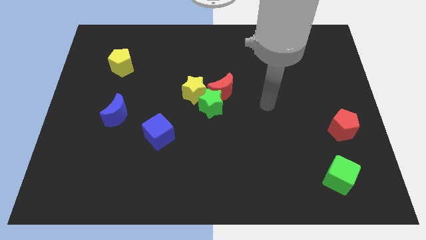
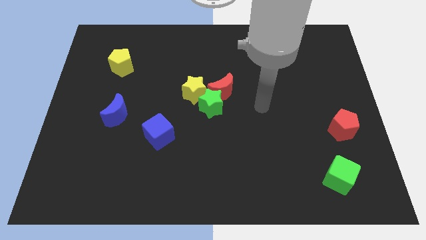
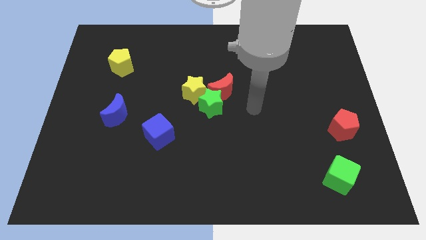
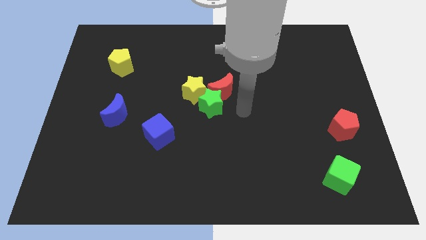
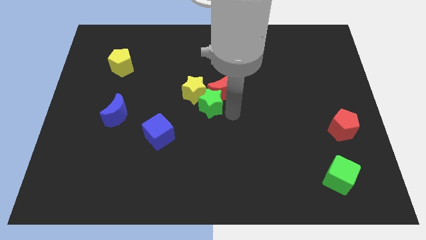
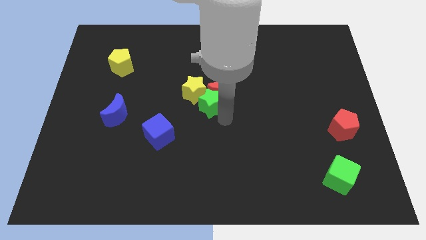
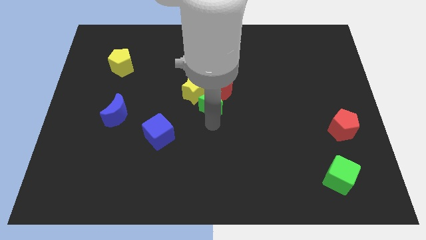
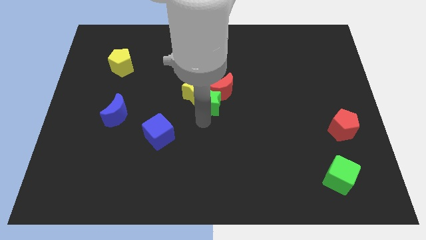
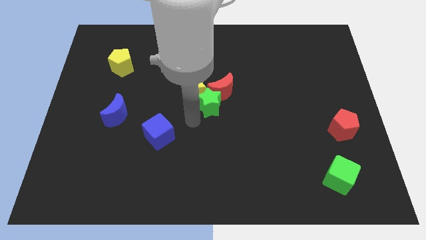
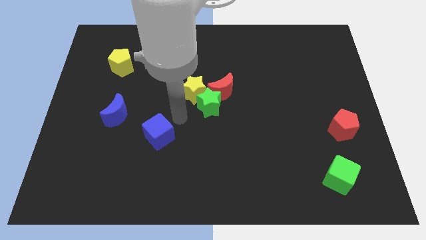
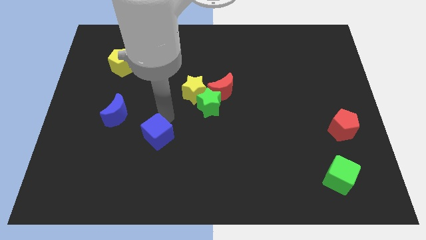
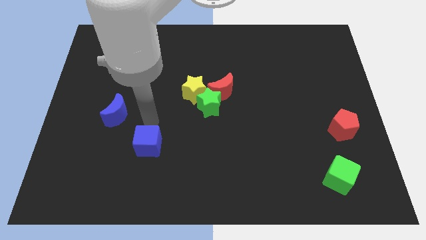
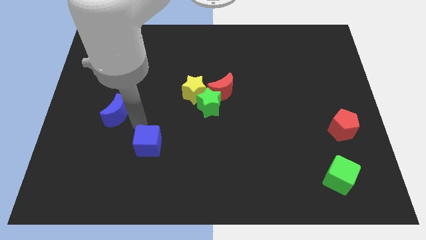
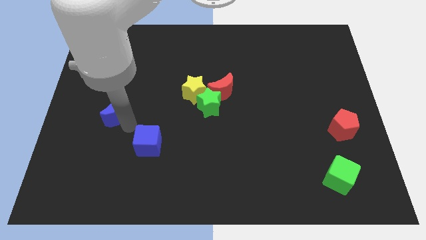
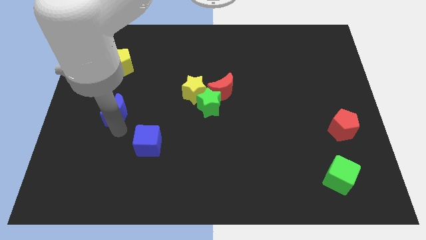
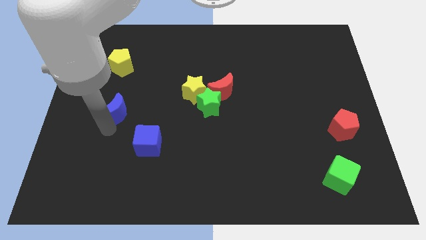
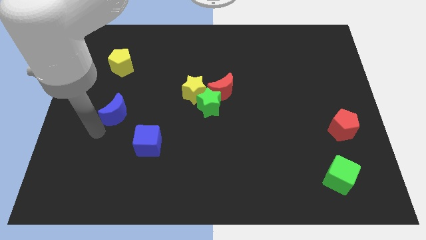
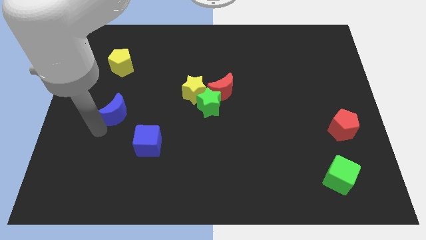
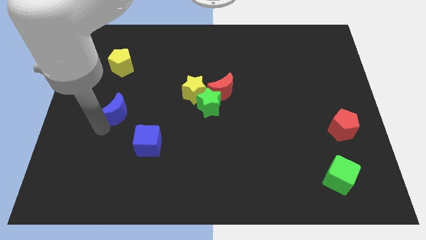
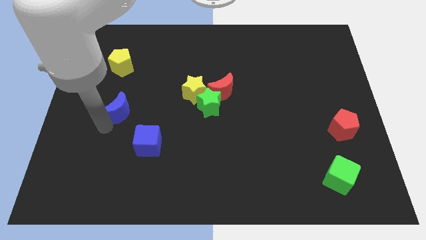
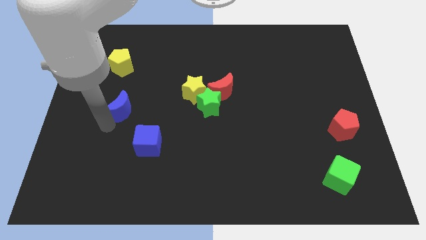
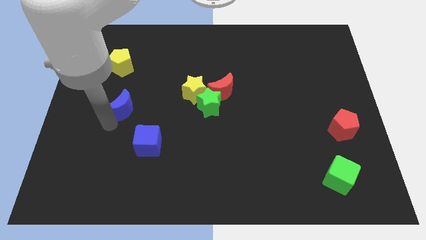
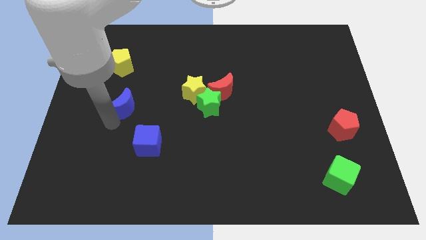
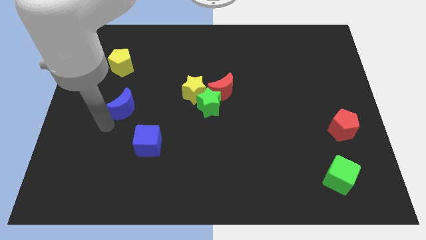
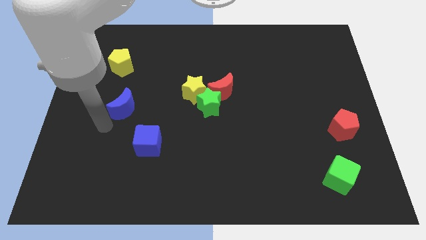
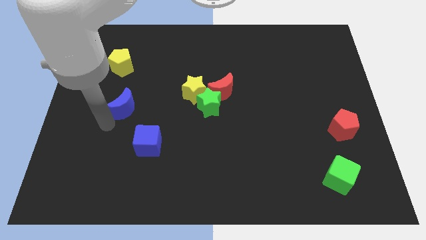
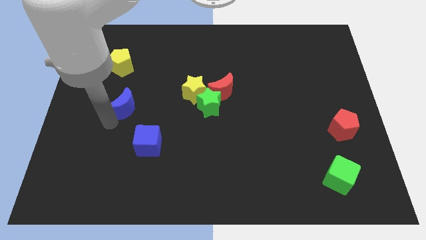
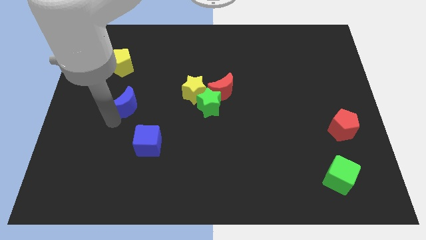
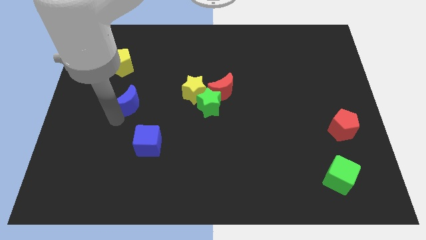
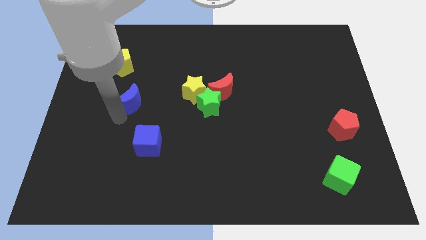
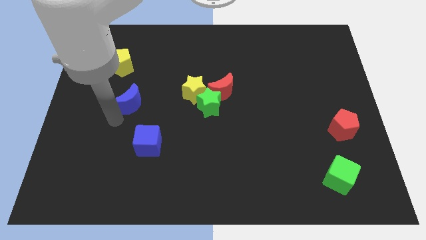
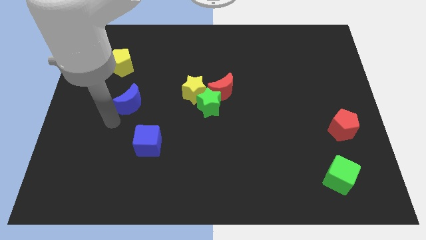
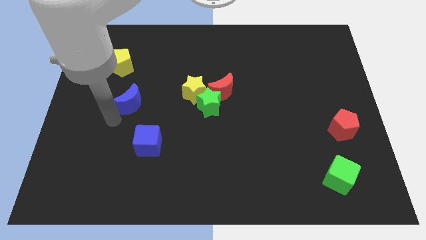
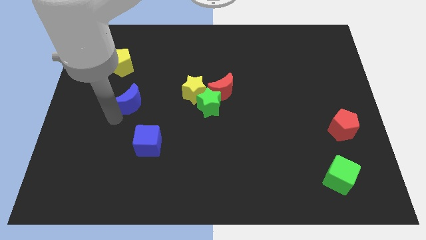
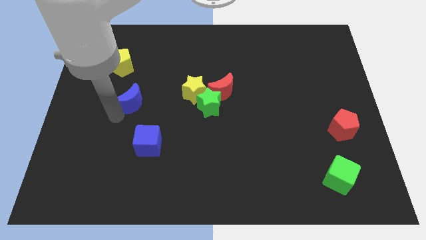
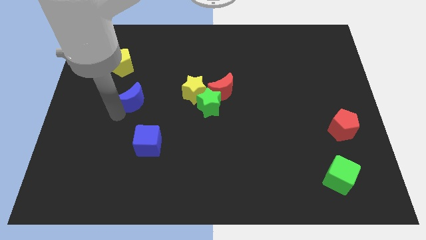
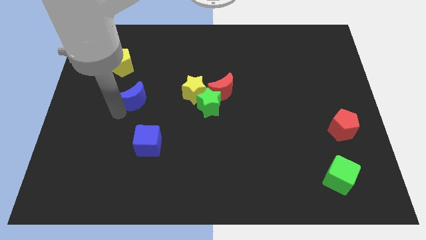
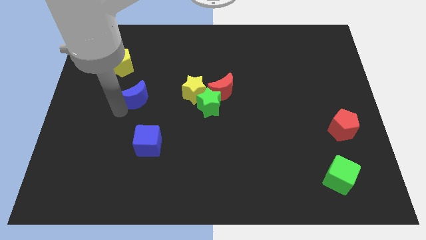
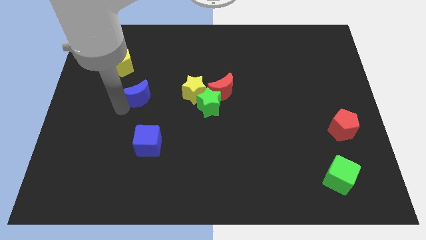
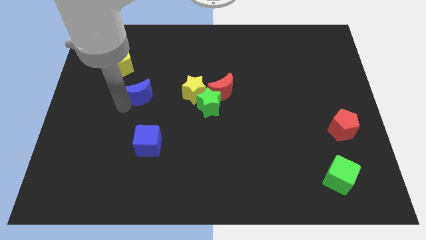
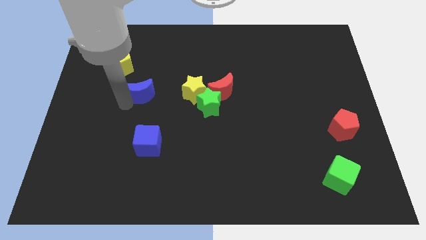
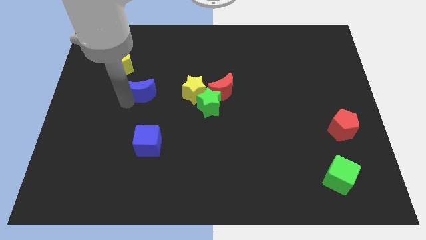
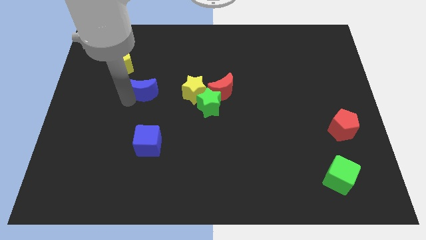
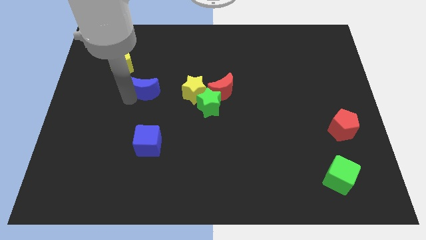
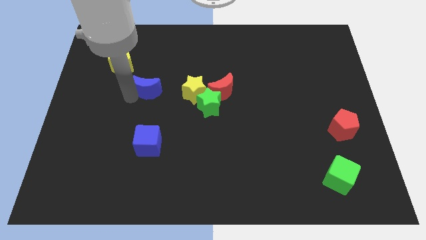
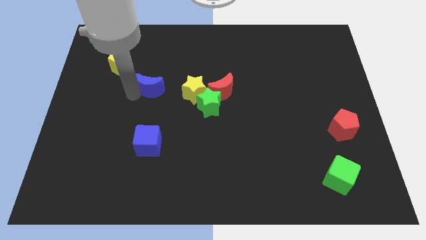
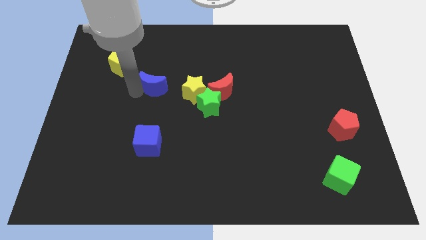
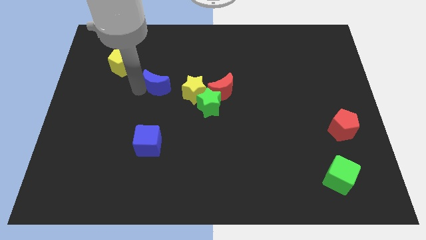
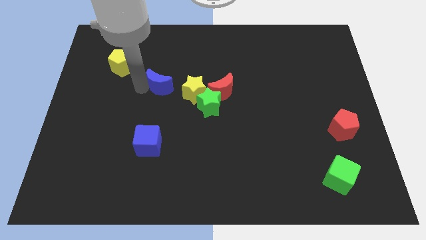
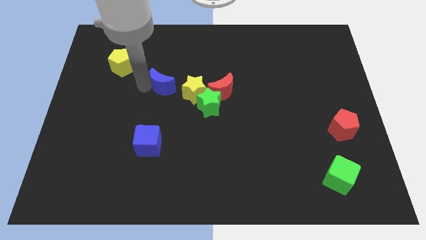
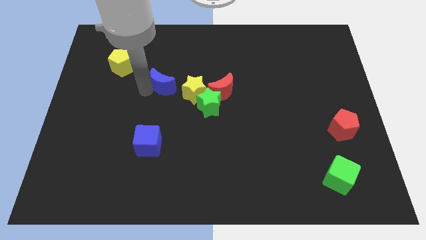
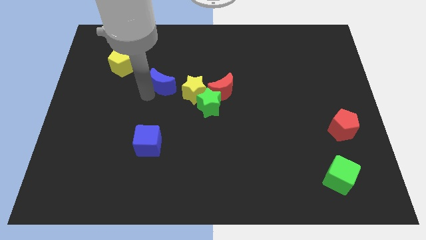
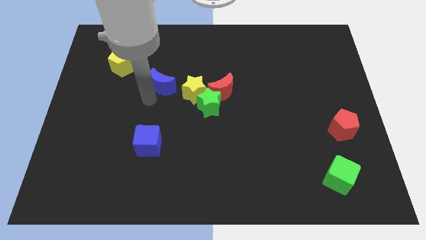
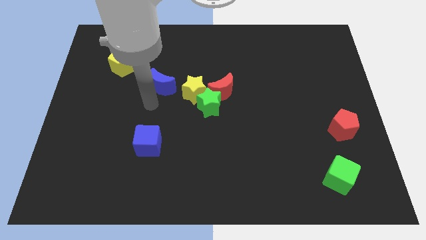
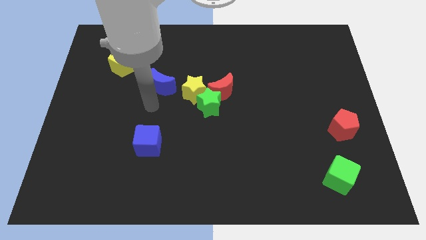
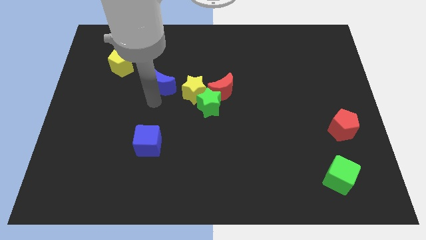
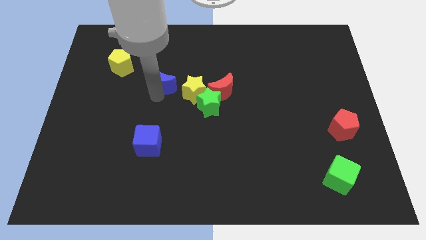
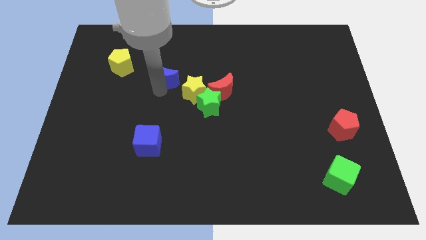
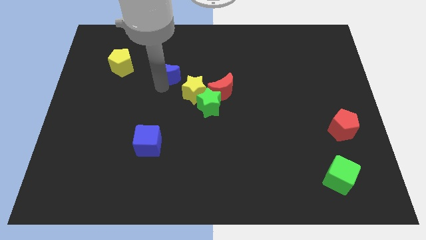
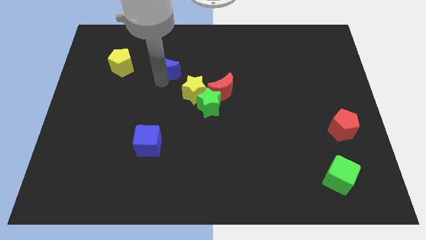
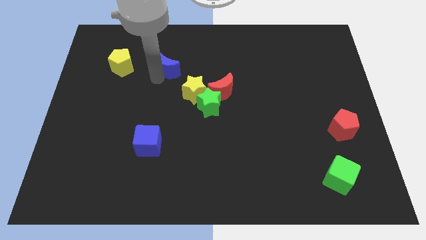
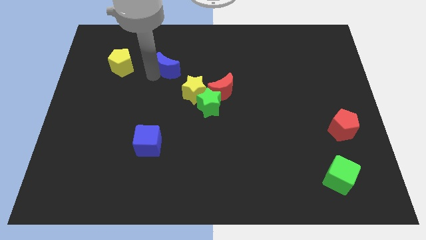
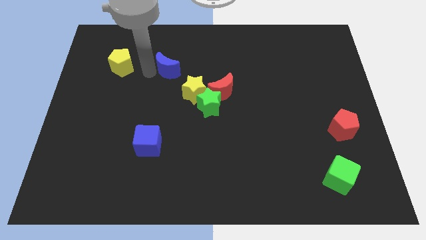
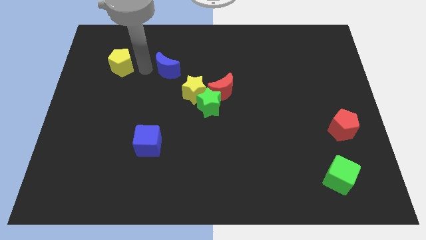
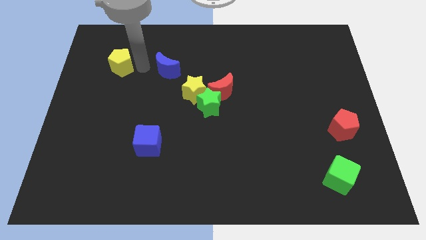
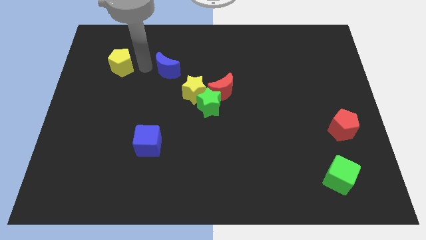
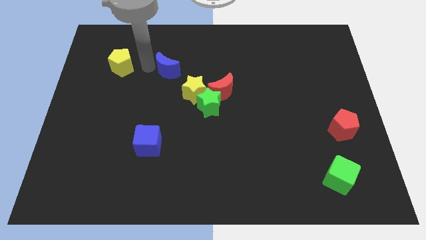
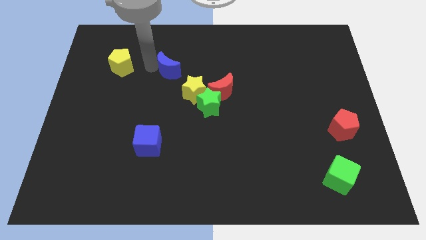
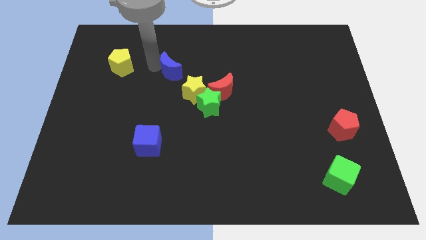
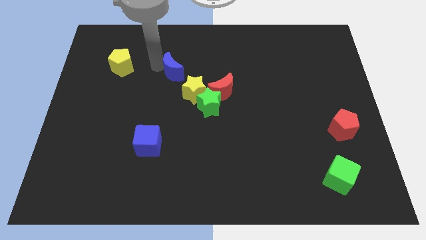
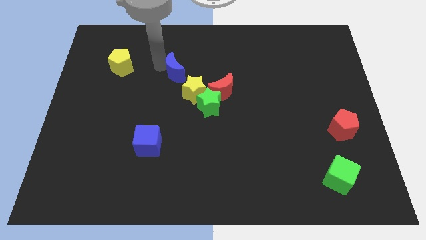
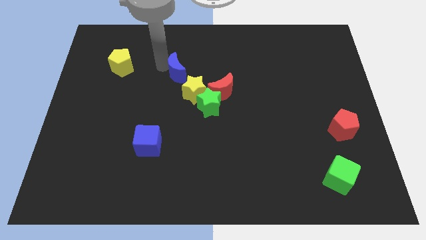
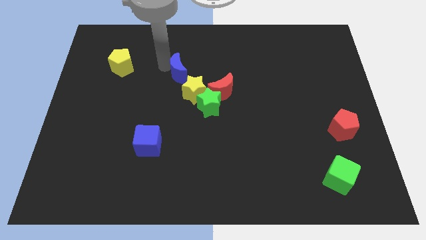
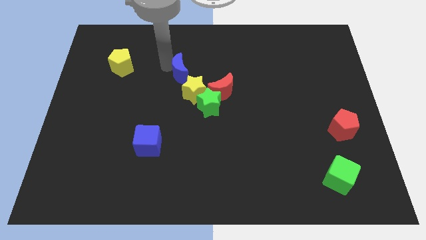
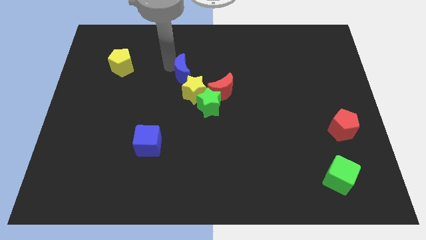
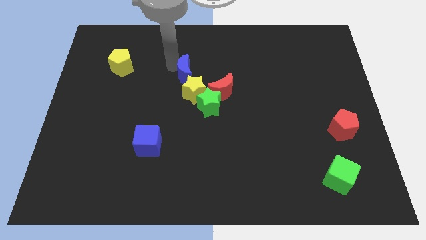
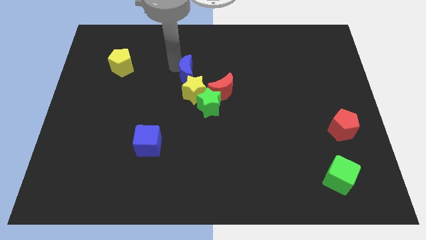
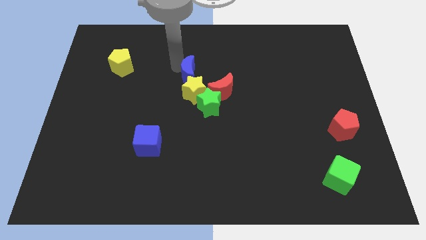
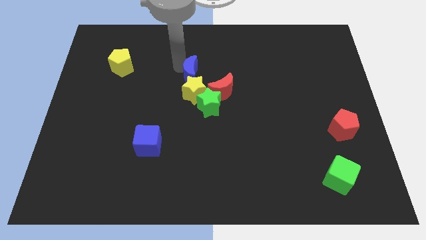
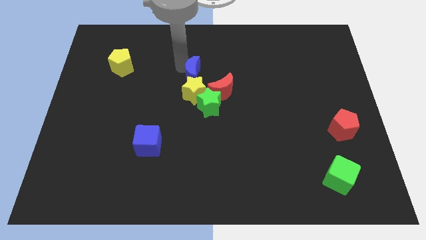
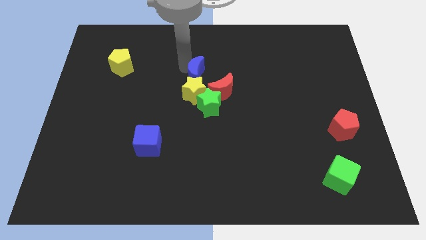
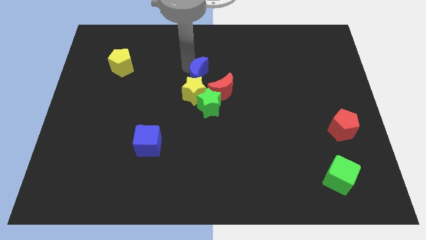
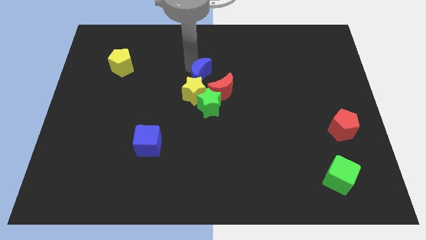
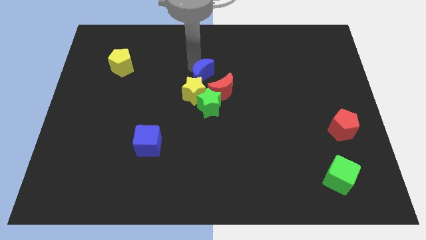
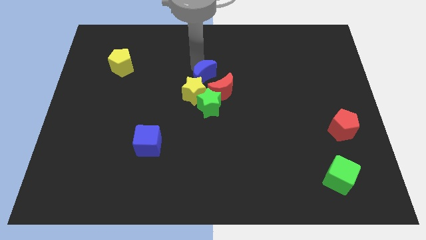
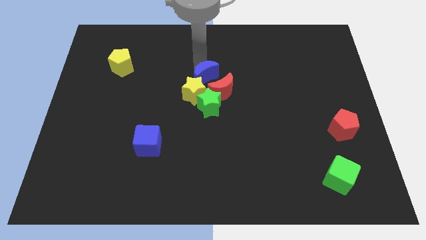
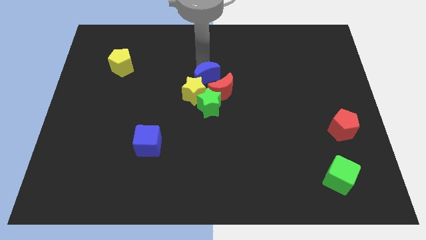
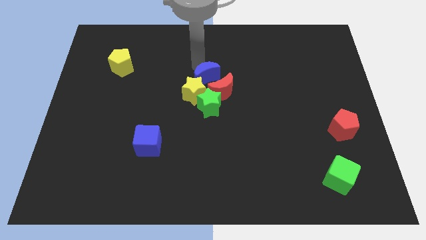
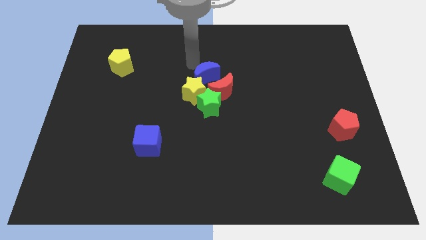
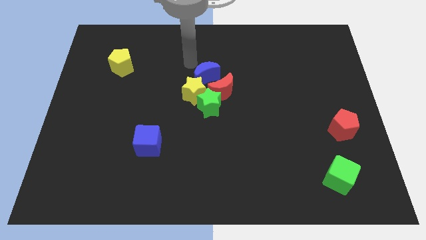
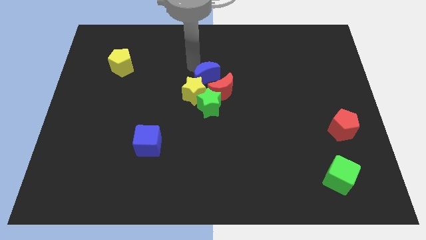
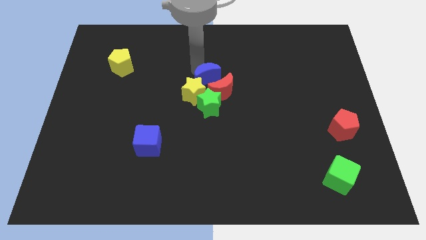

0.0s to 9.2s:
move the blue moon to the red moon
